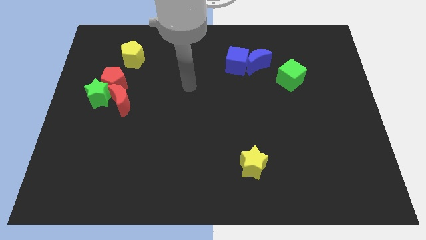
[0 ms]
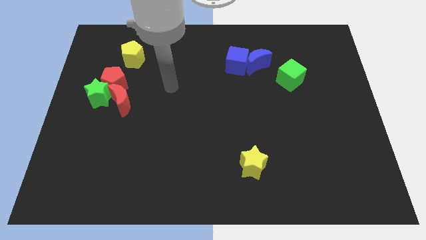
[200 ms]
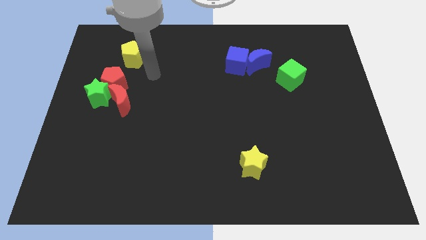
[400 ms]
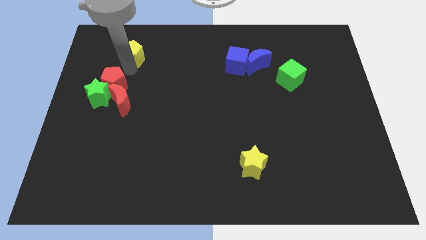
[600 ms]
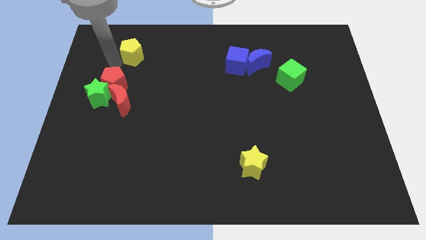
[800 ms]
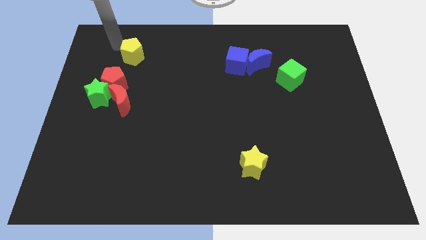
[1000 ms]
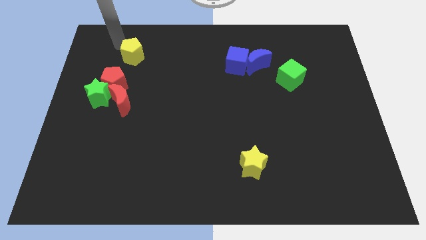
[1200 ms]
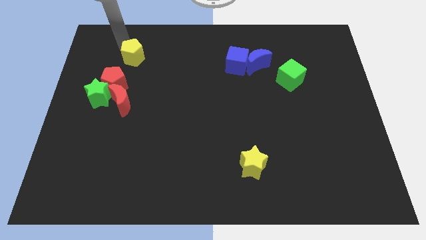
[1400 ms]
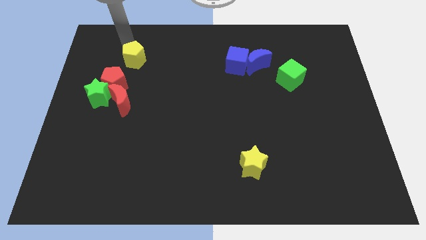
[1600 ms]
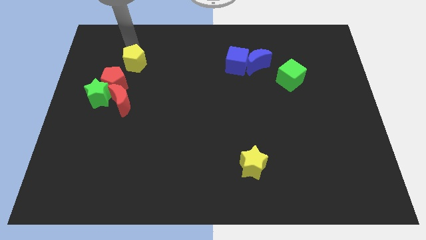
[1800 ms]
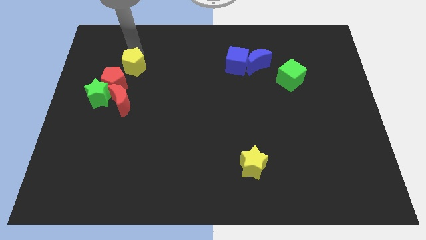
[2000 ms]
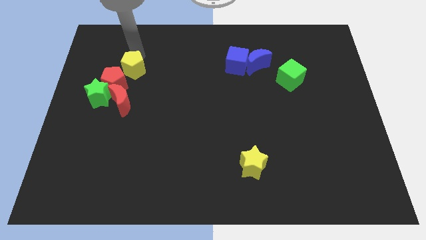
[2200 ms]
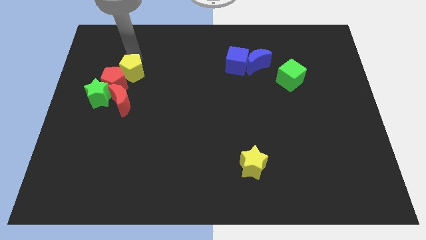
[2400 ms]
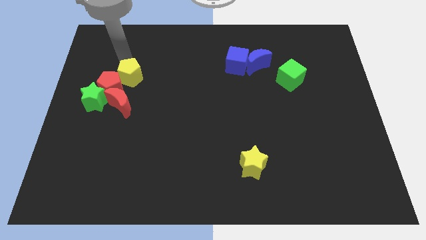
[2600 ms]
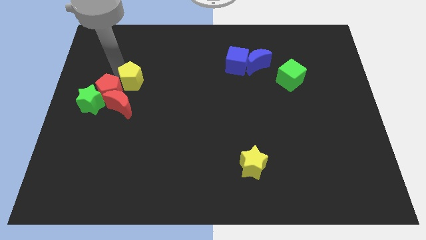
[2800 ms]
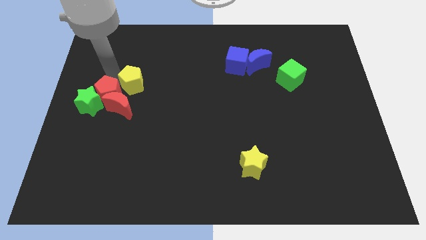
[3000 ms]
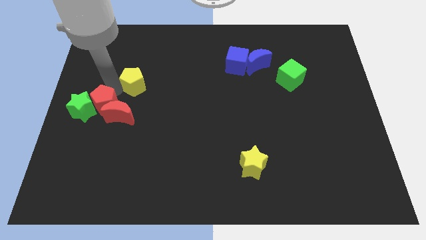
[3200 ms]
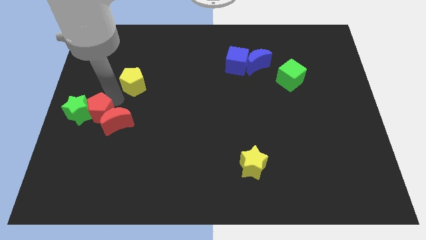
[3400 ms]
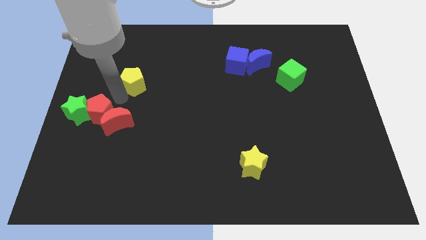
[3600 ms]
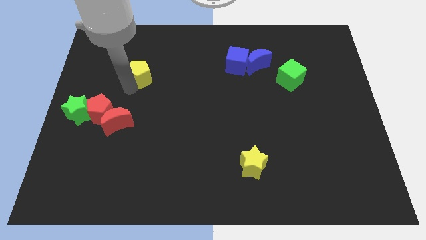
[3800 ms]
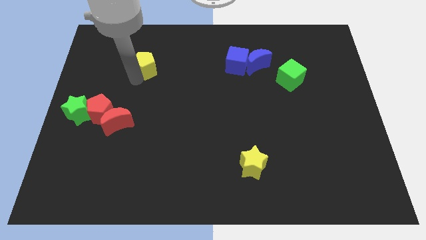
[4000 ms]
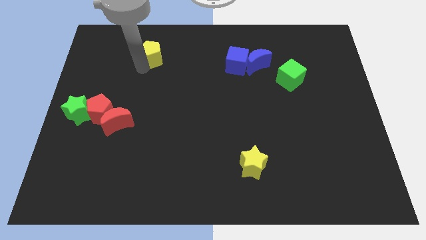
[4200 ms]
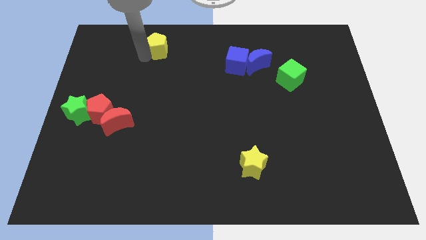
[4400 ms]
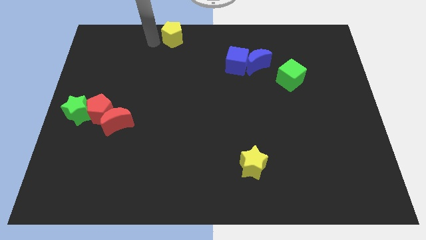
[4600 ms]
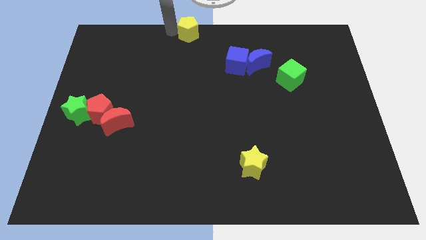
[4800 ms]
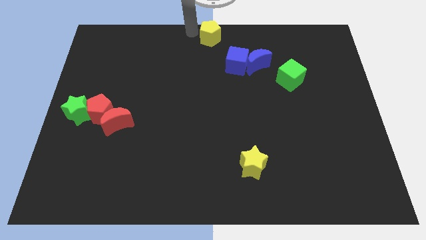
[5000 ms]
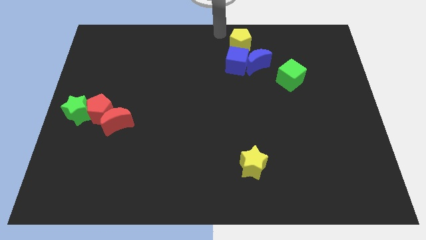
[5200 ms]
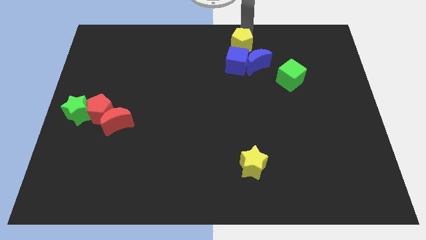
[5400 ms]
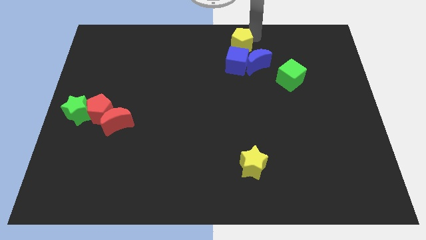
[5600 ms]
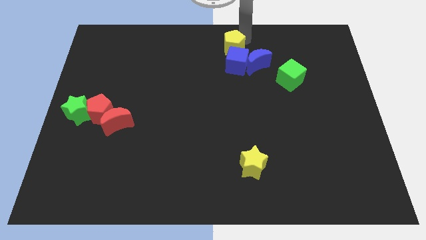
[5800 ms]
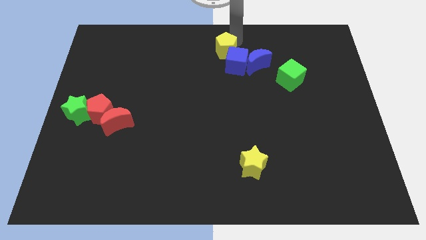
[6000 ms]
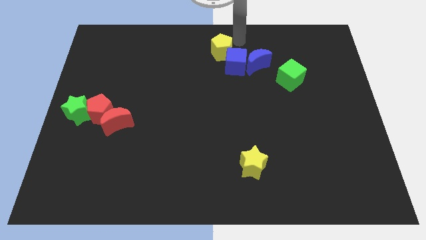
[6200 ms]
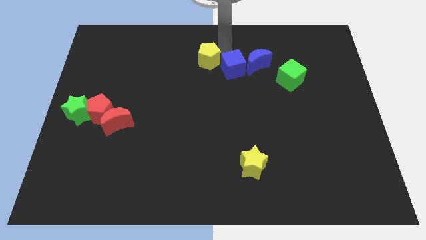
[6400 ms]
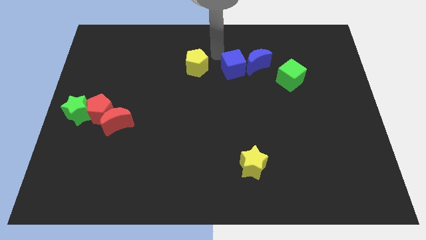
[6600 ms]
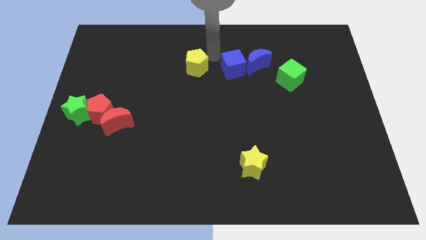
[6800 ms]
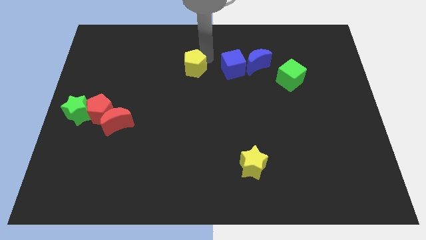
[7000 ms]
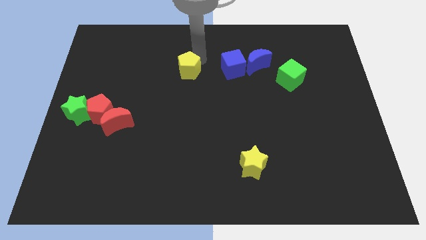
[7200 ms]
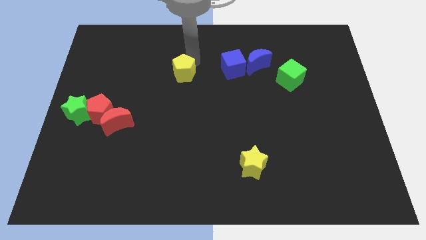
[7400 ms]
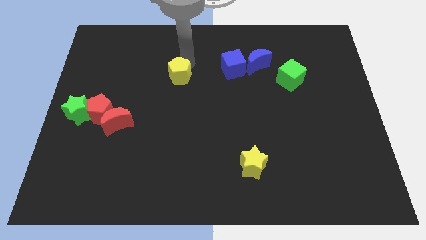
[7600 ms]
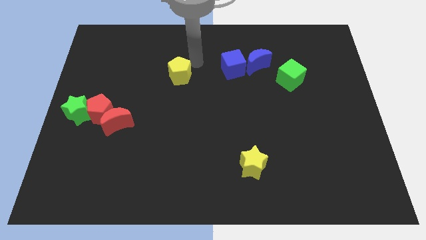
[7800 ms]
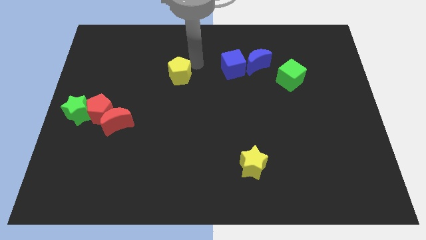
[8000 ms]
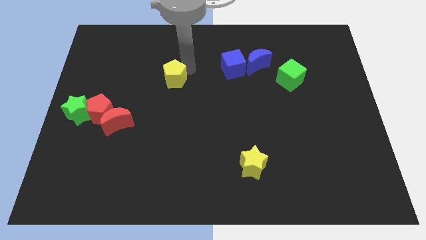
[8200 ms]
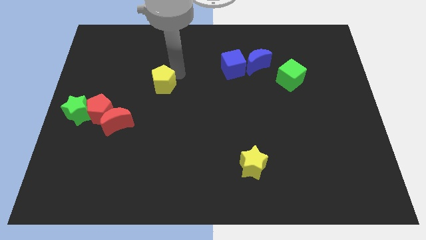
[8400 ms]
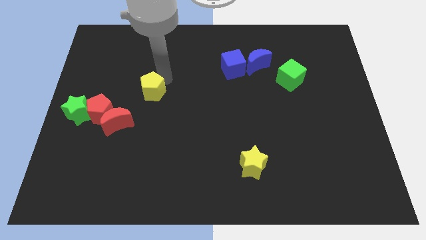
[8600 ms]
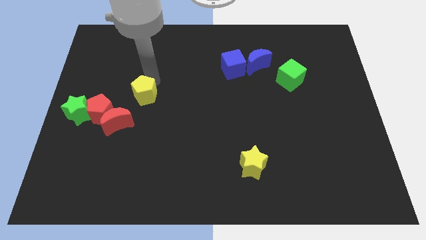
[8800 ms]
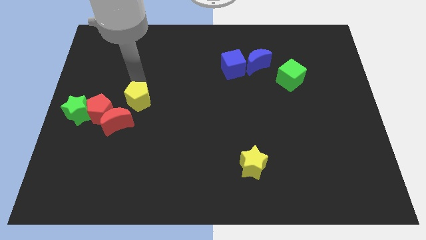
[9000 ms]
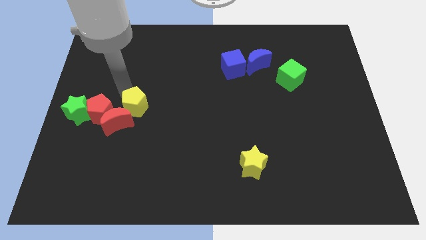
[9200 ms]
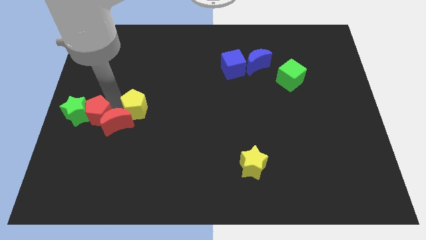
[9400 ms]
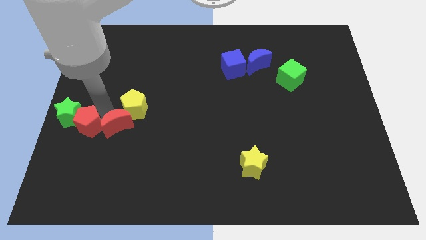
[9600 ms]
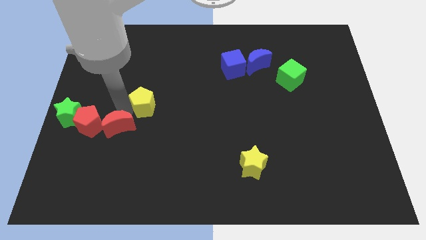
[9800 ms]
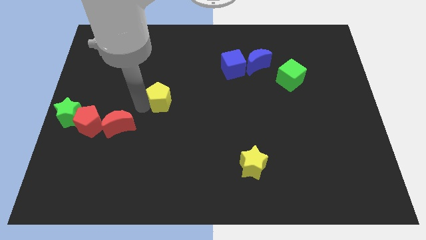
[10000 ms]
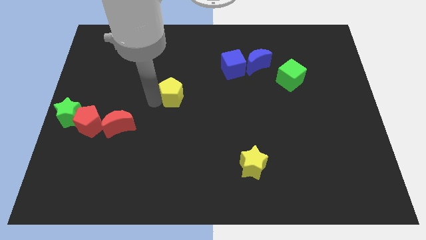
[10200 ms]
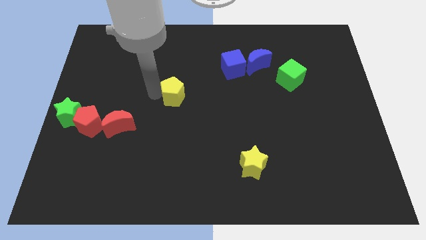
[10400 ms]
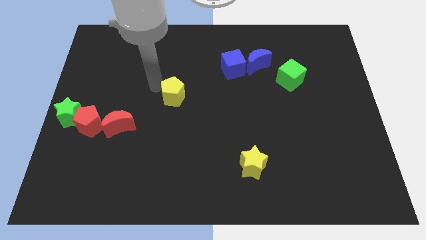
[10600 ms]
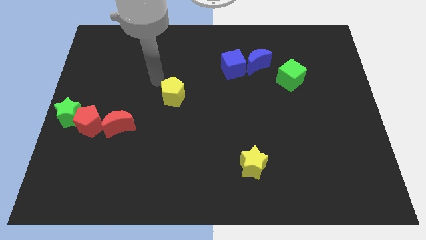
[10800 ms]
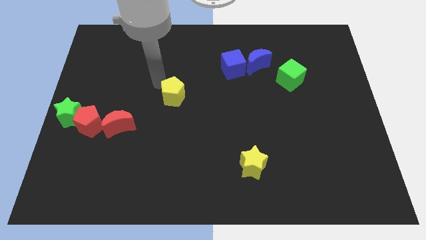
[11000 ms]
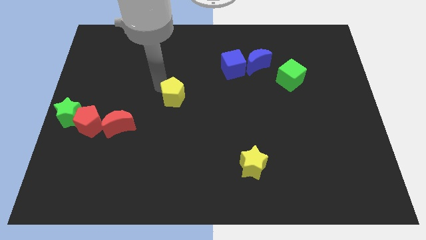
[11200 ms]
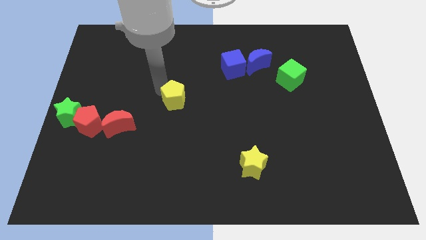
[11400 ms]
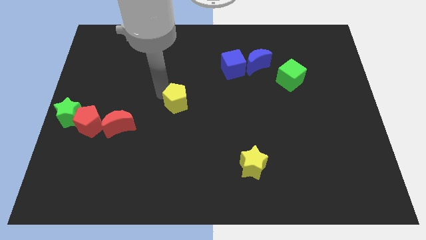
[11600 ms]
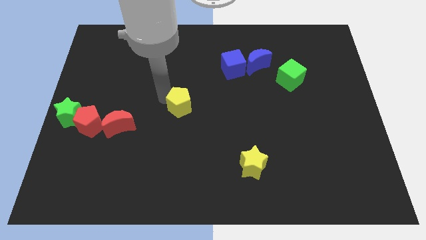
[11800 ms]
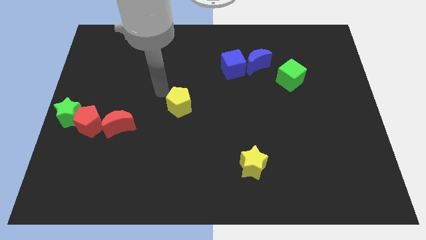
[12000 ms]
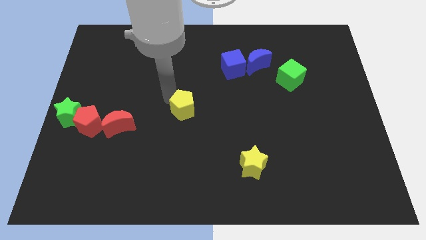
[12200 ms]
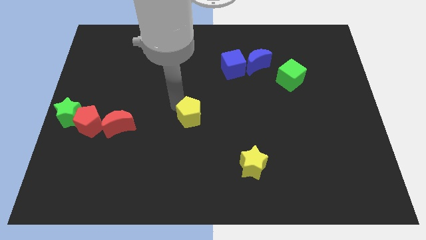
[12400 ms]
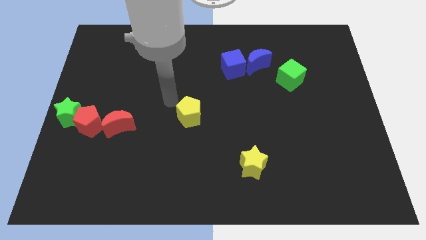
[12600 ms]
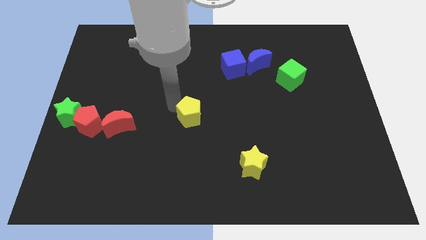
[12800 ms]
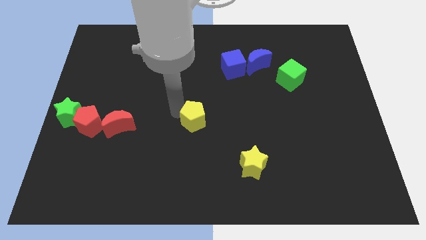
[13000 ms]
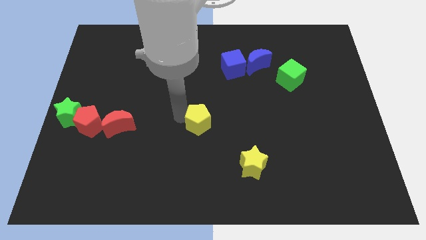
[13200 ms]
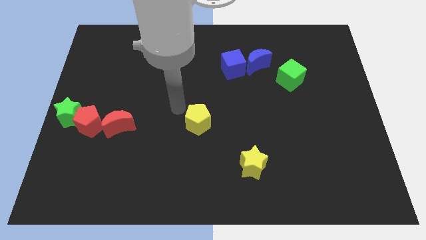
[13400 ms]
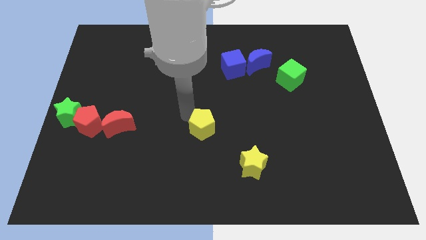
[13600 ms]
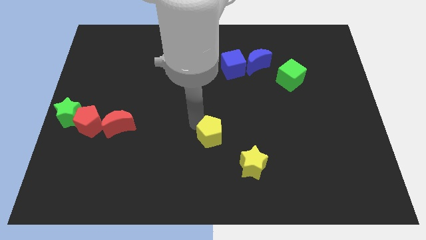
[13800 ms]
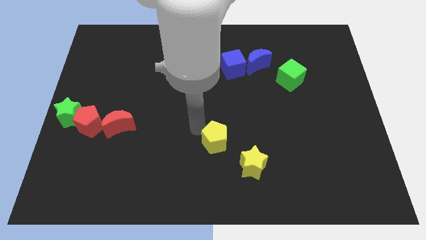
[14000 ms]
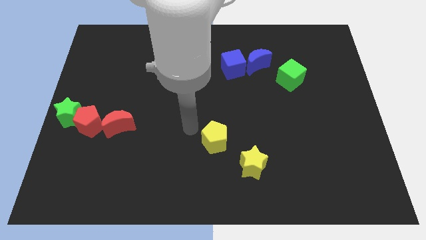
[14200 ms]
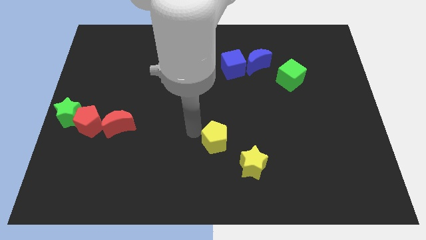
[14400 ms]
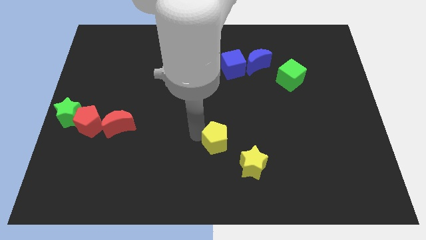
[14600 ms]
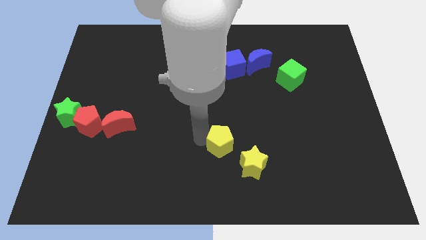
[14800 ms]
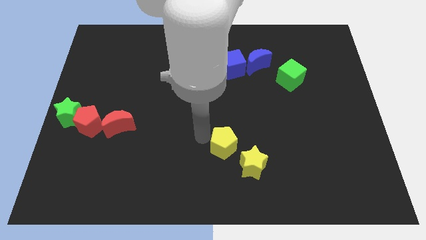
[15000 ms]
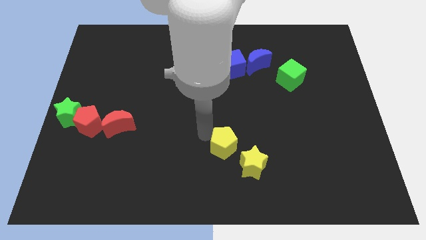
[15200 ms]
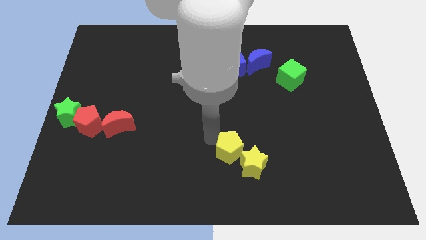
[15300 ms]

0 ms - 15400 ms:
slide the yellow pentagon close to the yellow star
